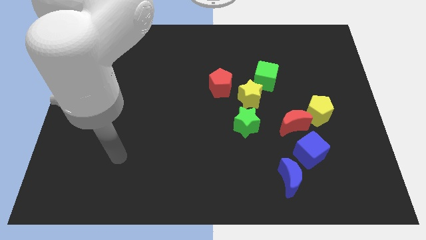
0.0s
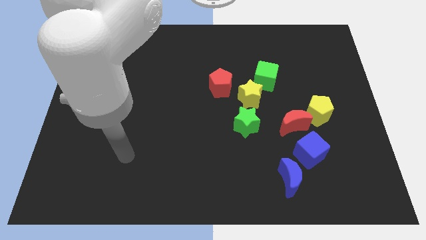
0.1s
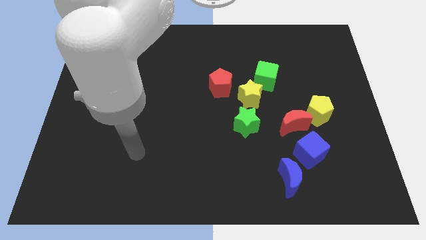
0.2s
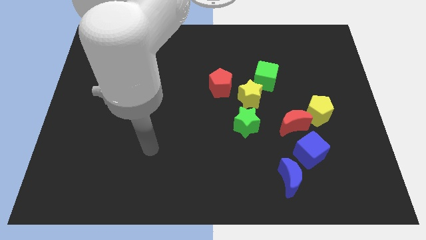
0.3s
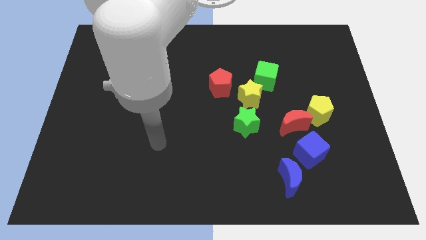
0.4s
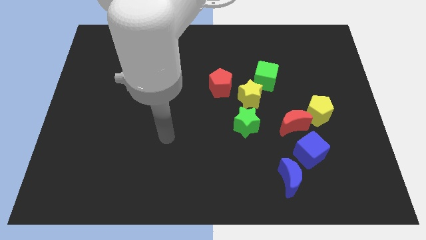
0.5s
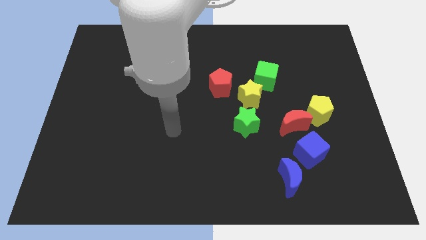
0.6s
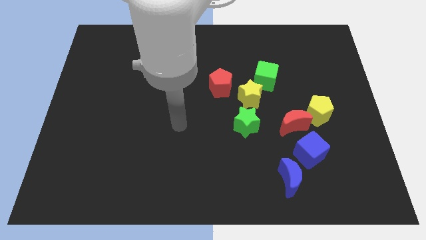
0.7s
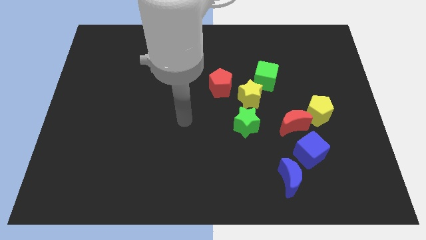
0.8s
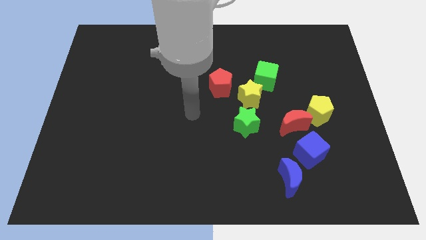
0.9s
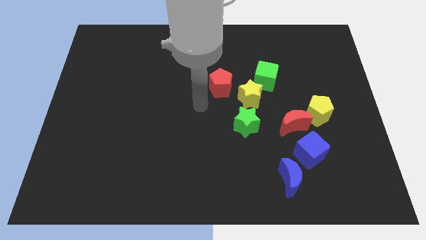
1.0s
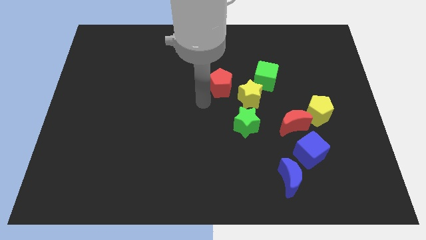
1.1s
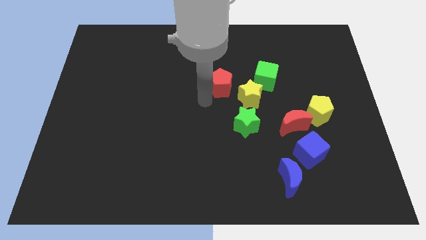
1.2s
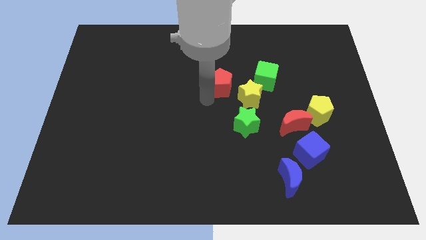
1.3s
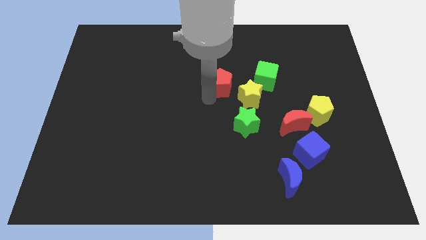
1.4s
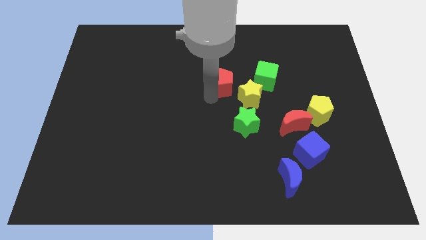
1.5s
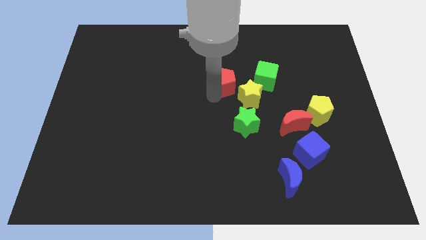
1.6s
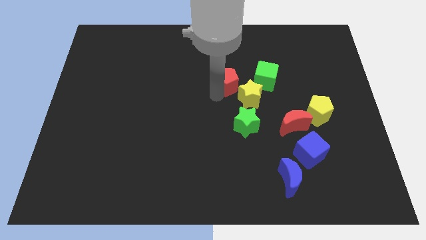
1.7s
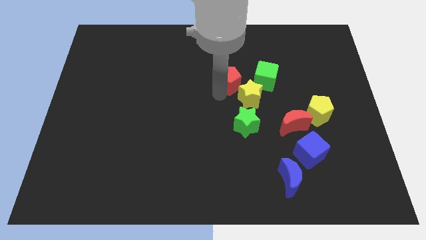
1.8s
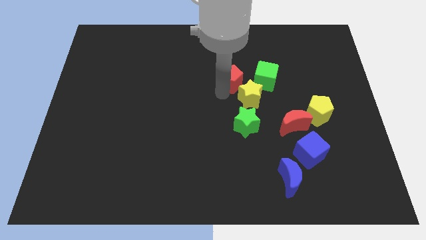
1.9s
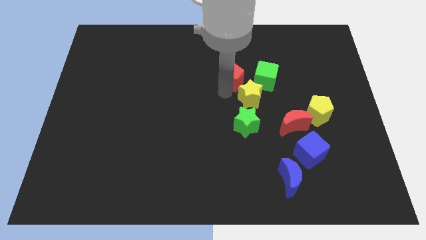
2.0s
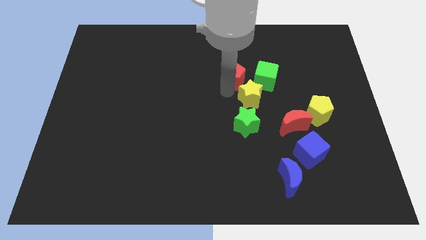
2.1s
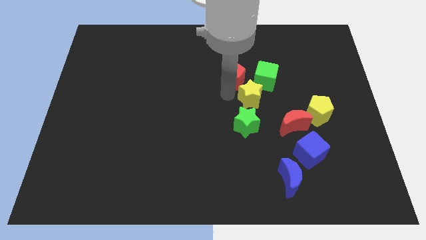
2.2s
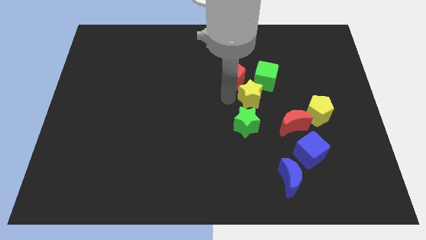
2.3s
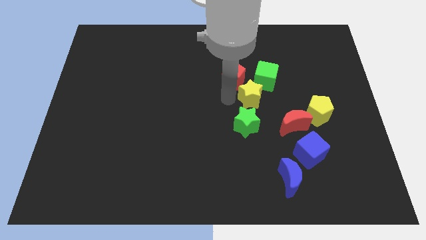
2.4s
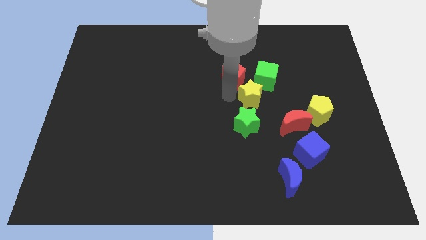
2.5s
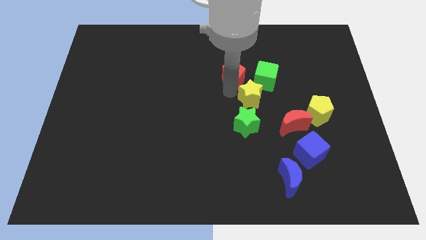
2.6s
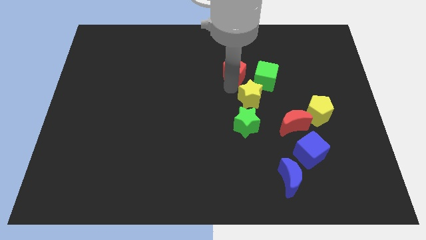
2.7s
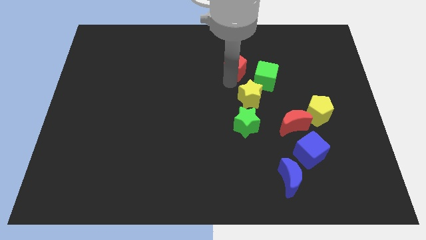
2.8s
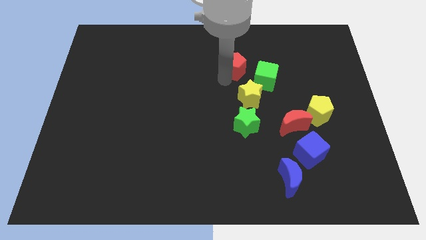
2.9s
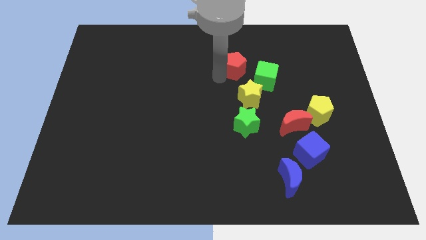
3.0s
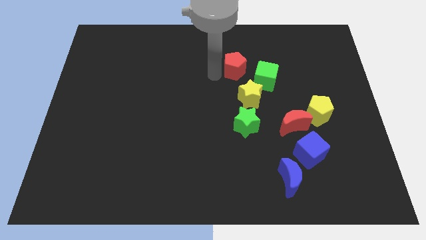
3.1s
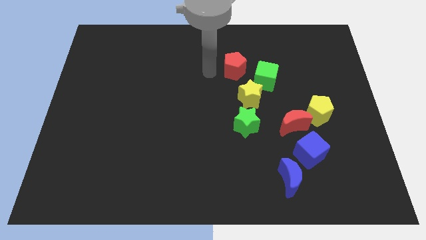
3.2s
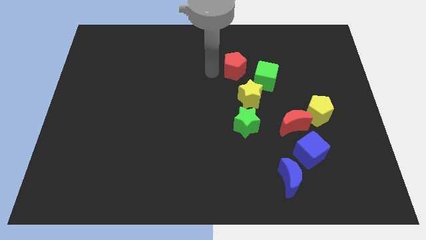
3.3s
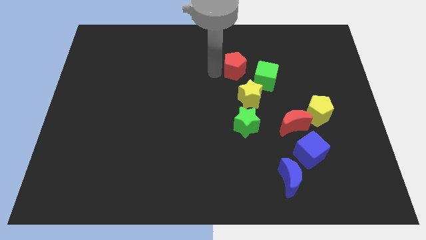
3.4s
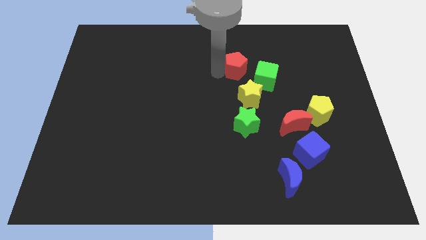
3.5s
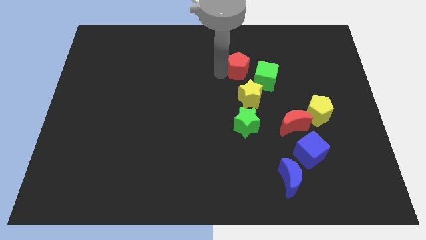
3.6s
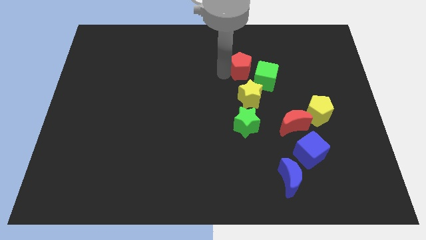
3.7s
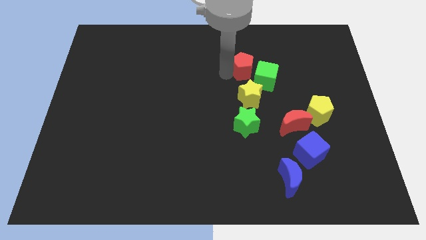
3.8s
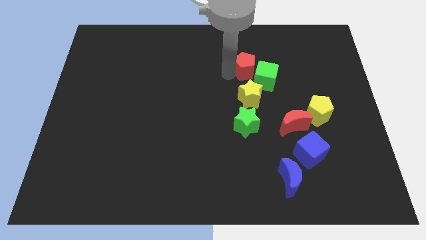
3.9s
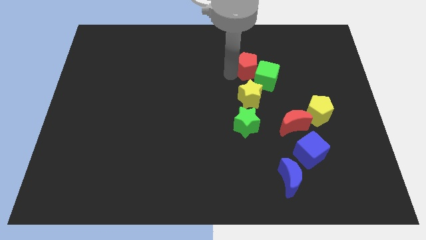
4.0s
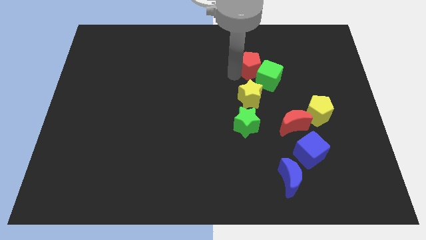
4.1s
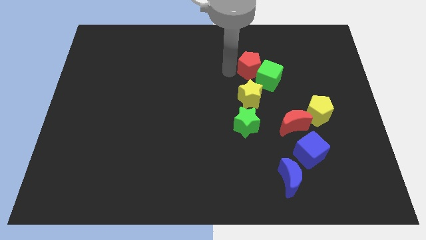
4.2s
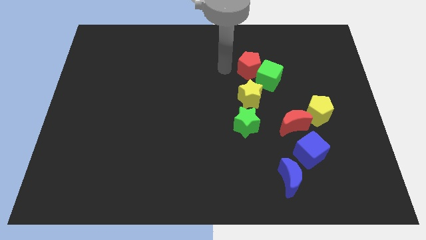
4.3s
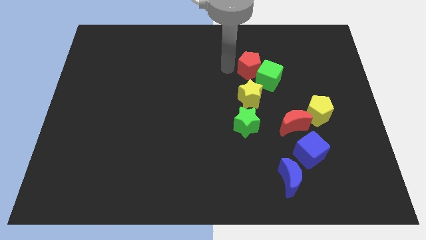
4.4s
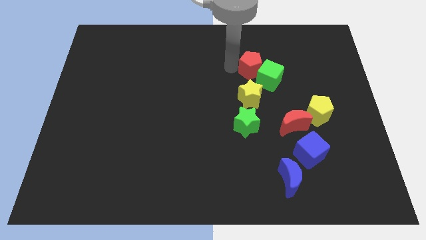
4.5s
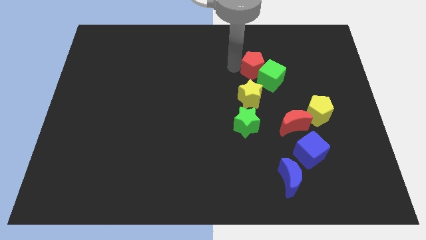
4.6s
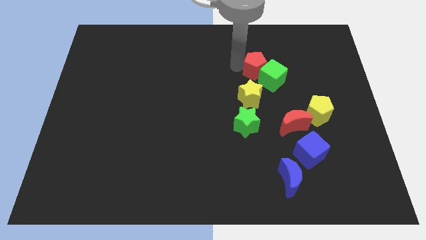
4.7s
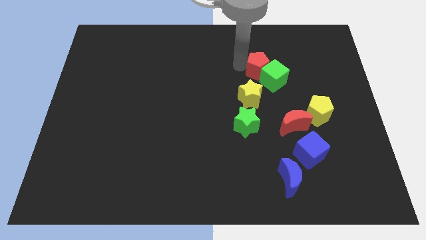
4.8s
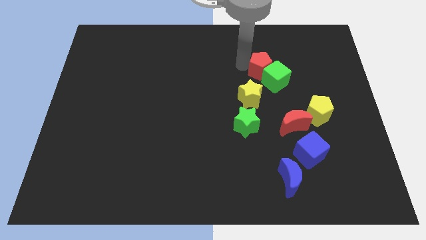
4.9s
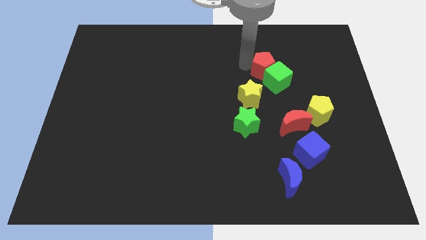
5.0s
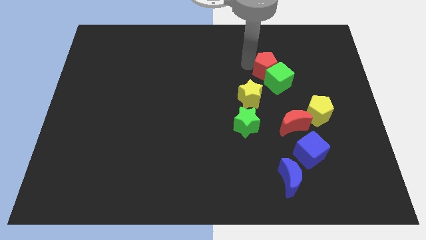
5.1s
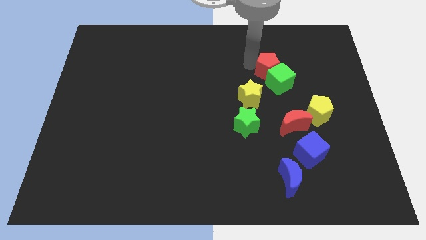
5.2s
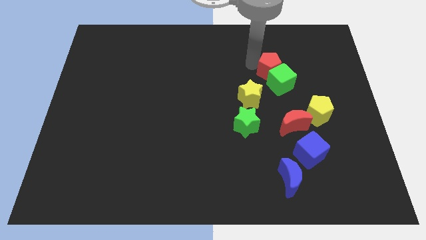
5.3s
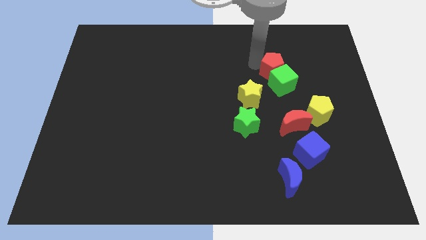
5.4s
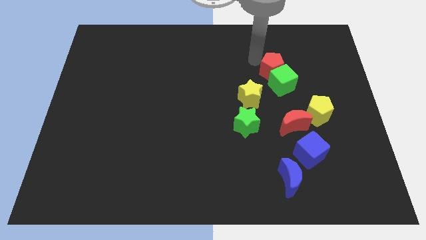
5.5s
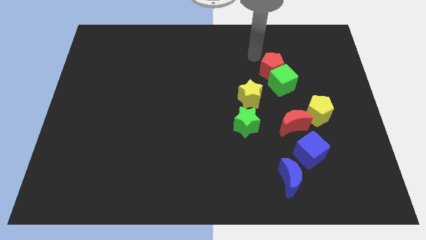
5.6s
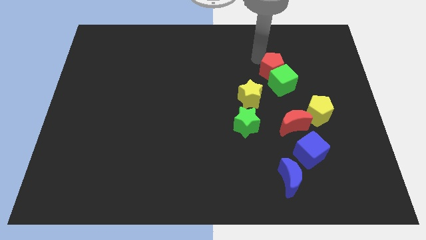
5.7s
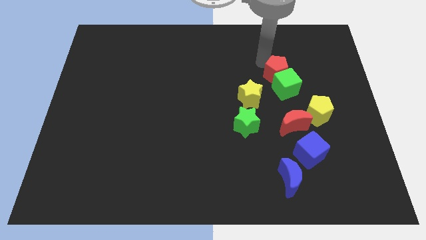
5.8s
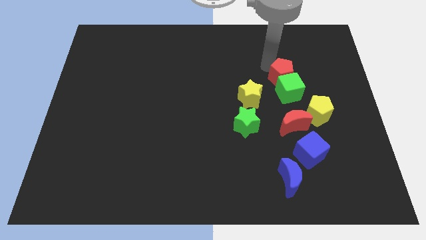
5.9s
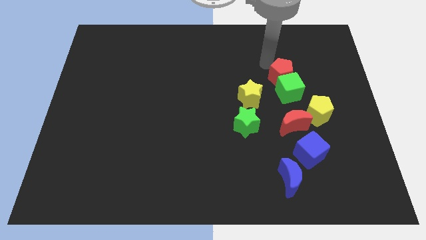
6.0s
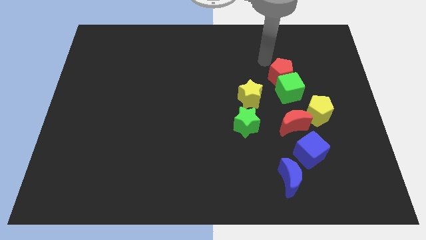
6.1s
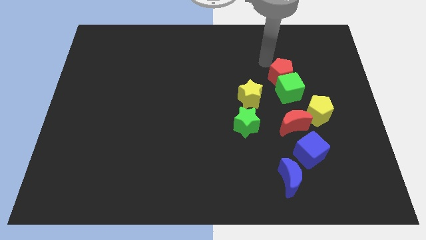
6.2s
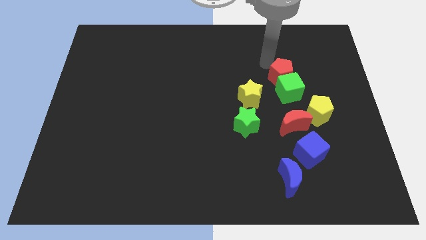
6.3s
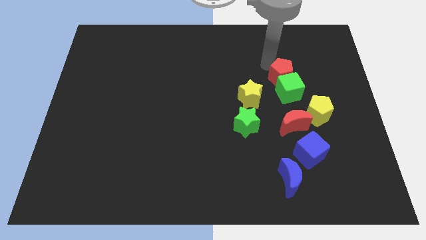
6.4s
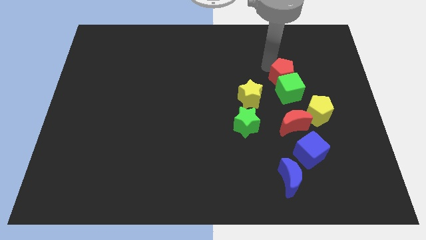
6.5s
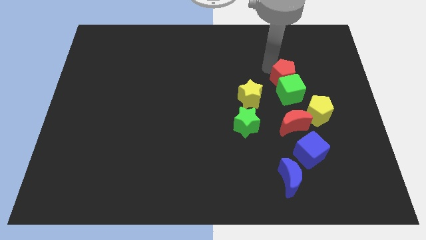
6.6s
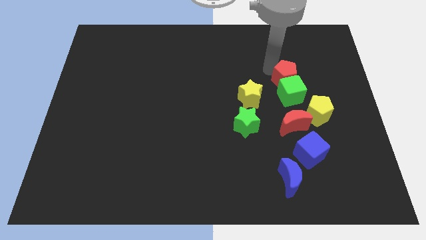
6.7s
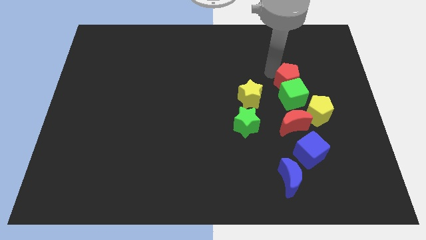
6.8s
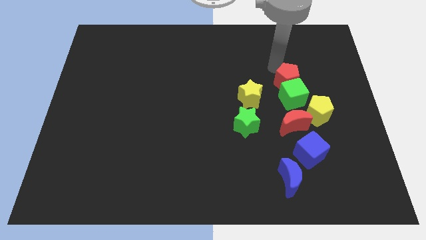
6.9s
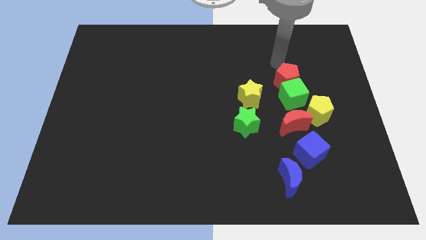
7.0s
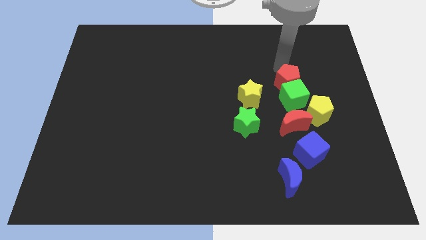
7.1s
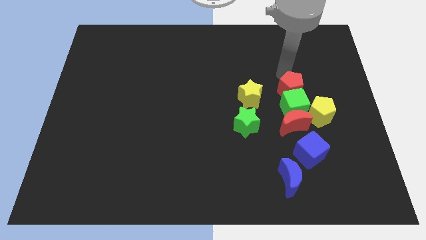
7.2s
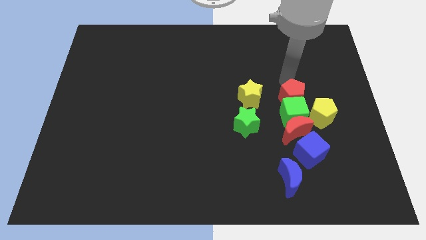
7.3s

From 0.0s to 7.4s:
move the red pentagon to the top of the blue cube

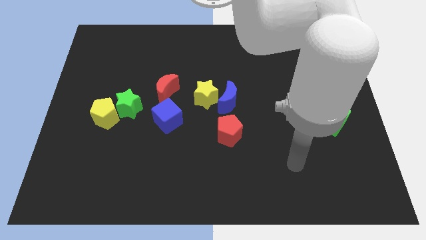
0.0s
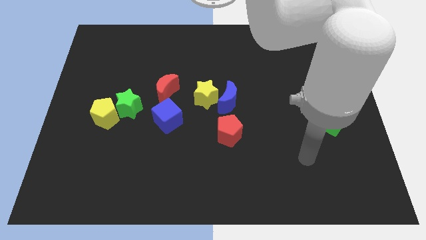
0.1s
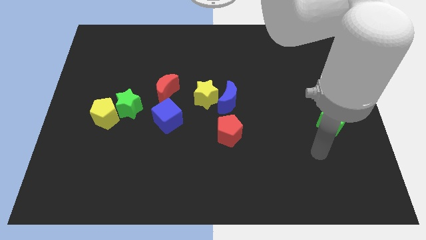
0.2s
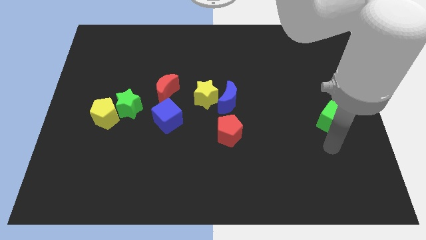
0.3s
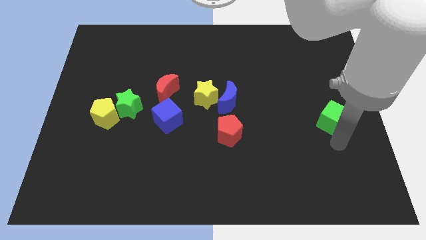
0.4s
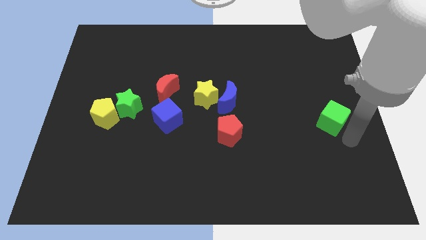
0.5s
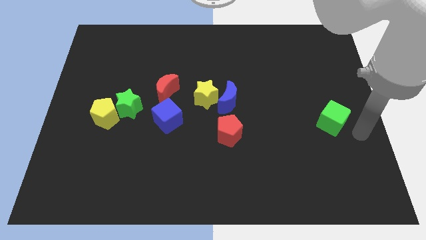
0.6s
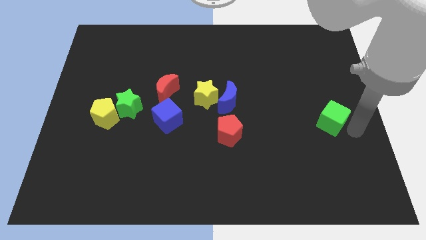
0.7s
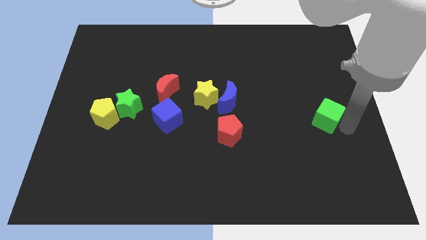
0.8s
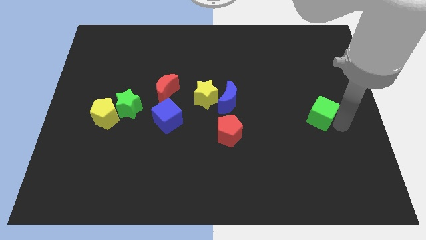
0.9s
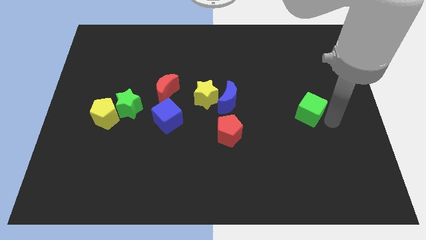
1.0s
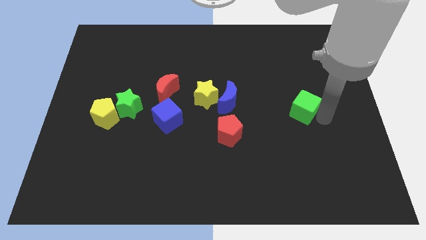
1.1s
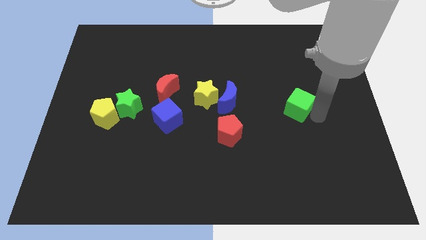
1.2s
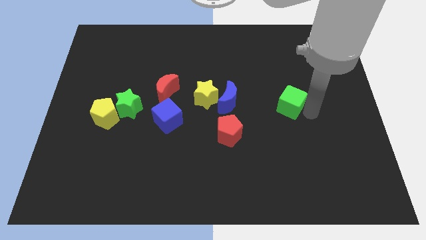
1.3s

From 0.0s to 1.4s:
push the green cube just right of the blue moon
